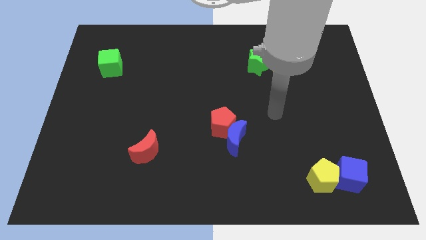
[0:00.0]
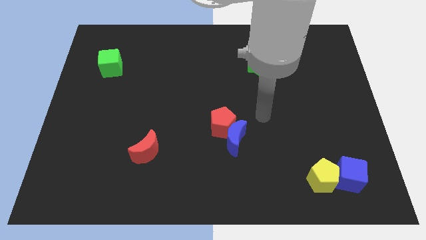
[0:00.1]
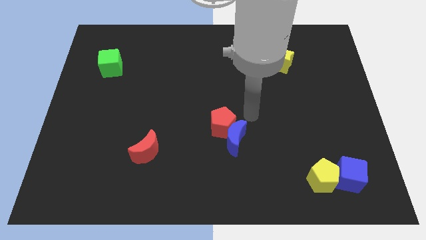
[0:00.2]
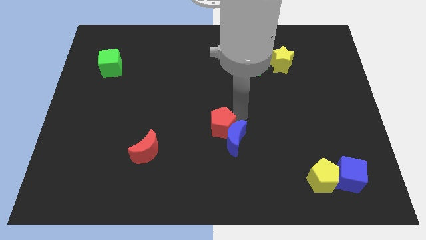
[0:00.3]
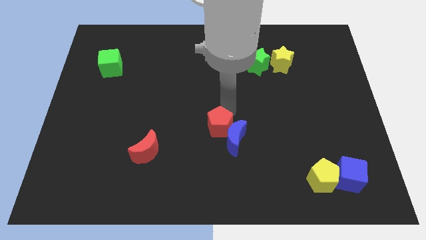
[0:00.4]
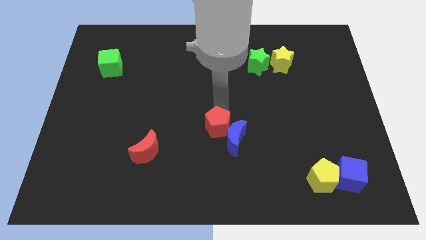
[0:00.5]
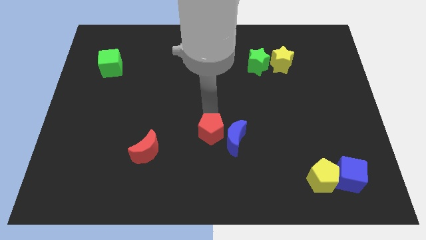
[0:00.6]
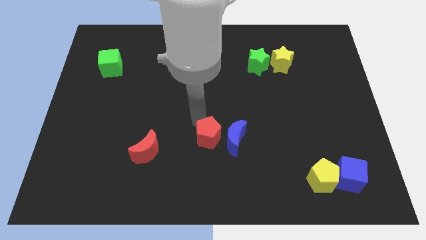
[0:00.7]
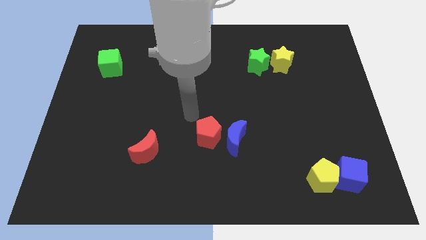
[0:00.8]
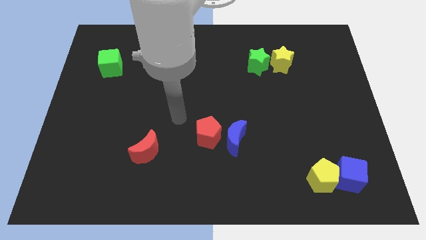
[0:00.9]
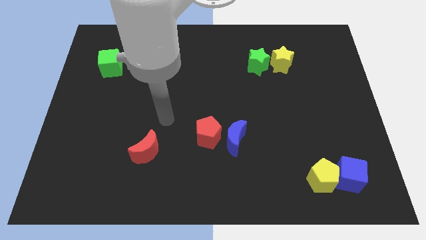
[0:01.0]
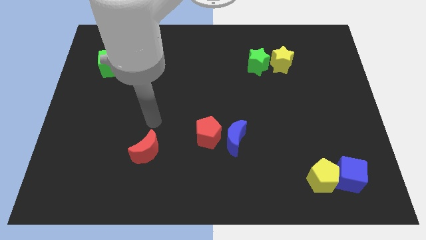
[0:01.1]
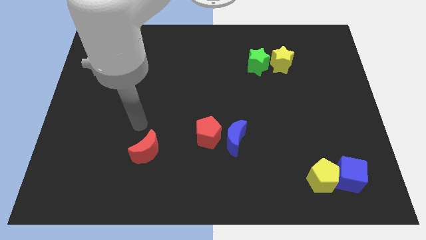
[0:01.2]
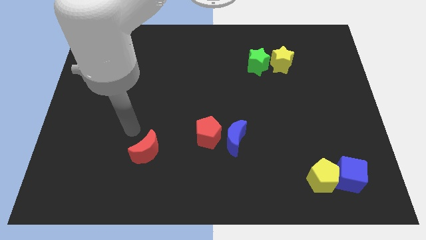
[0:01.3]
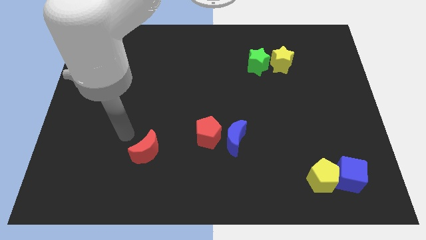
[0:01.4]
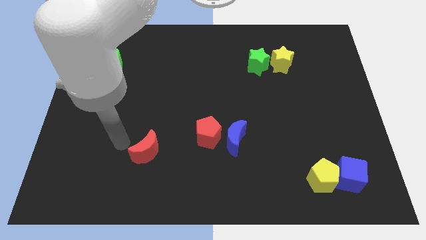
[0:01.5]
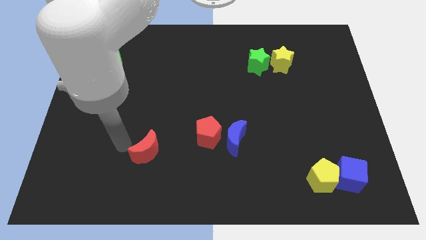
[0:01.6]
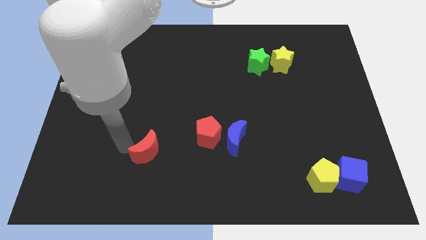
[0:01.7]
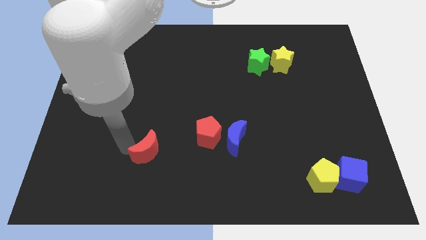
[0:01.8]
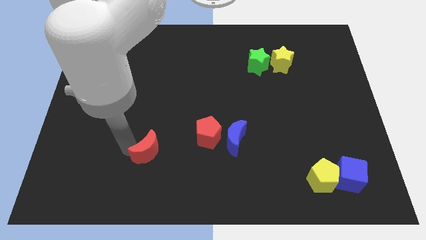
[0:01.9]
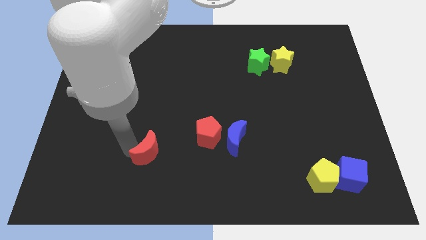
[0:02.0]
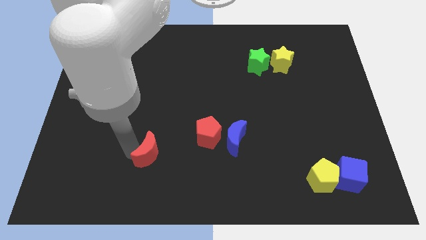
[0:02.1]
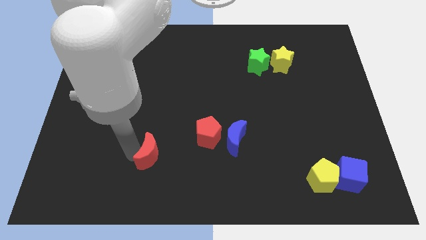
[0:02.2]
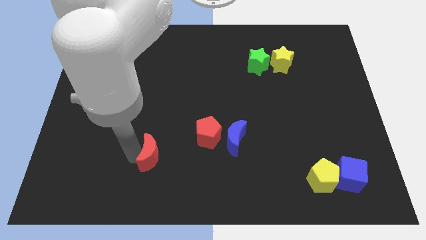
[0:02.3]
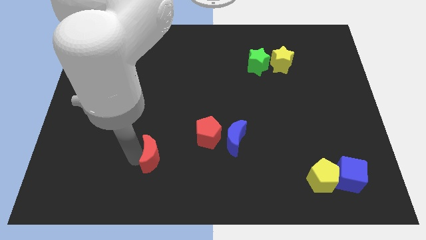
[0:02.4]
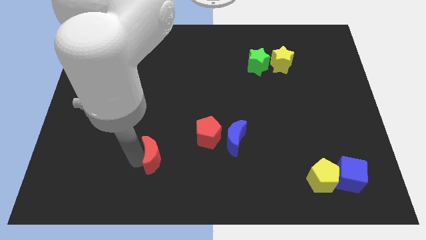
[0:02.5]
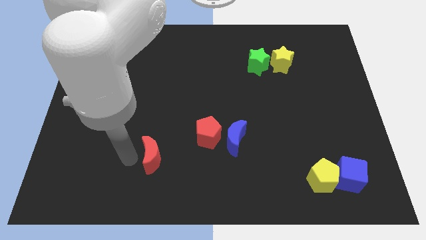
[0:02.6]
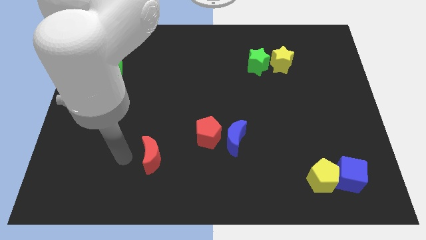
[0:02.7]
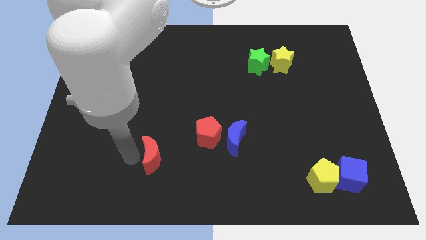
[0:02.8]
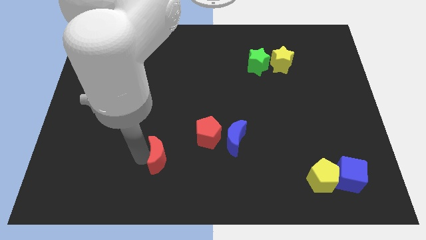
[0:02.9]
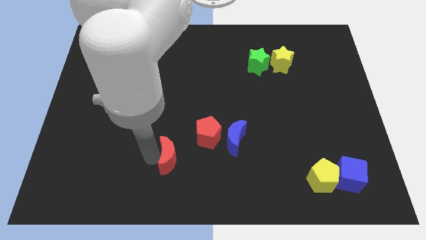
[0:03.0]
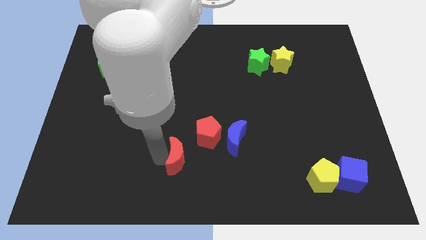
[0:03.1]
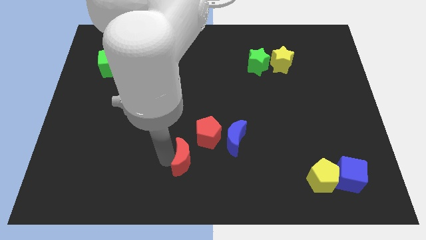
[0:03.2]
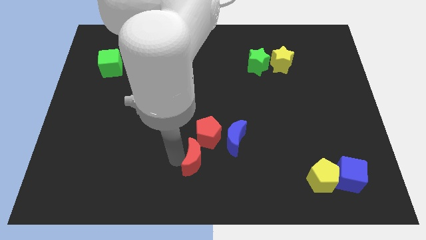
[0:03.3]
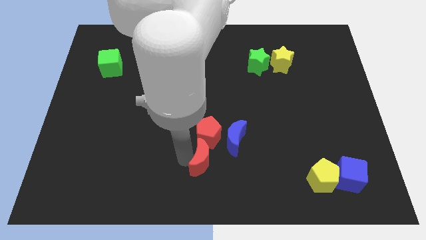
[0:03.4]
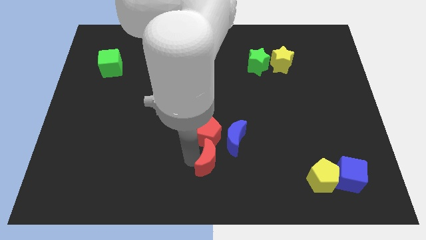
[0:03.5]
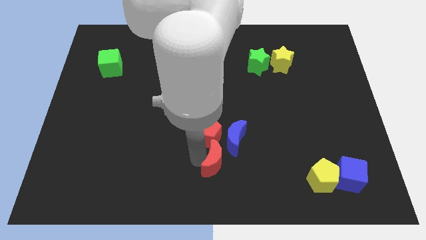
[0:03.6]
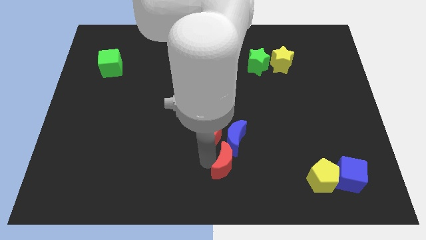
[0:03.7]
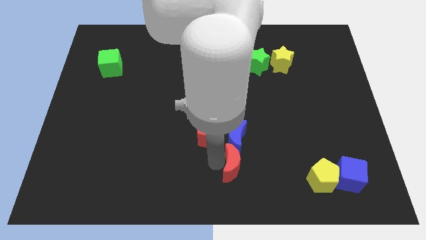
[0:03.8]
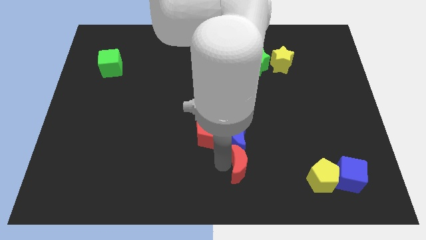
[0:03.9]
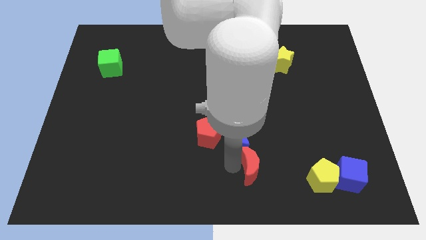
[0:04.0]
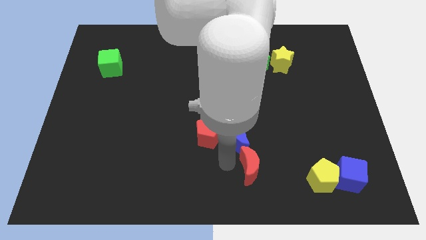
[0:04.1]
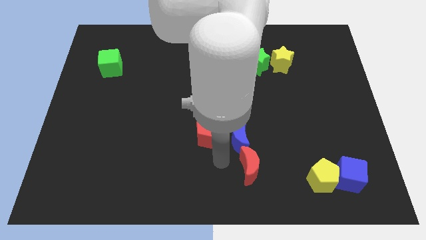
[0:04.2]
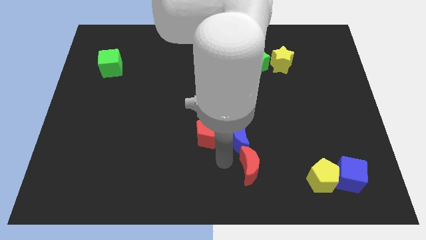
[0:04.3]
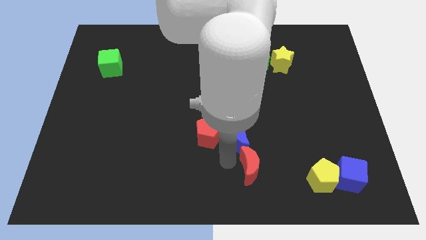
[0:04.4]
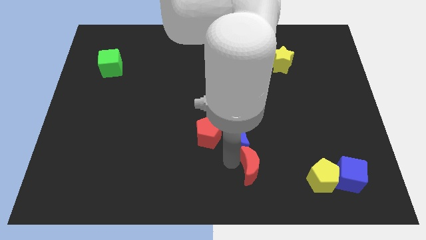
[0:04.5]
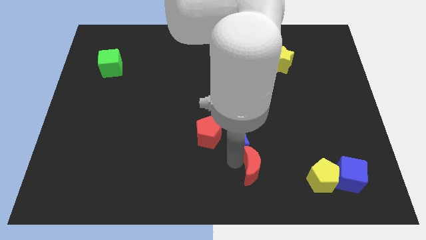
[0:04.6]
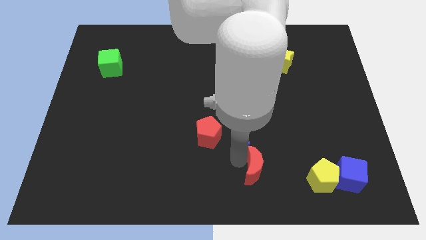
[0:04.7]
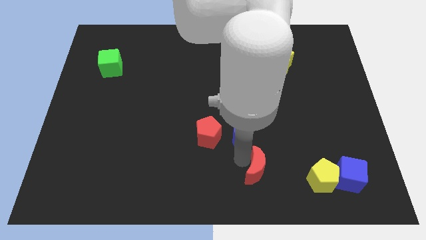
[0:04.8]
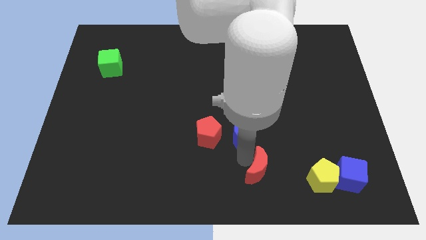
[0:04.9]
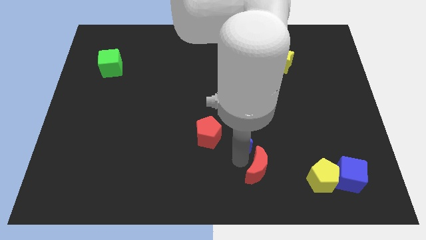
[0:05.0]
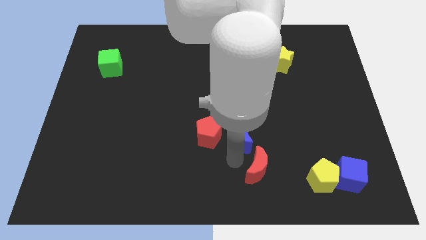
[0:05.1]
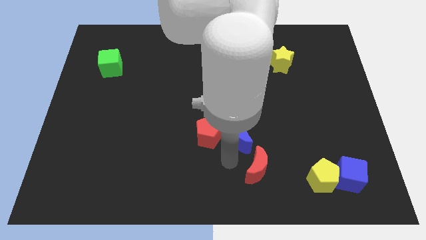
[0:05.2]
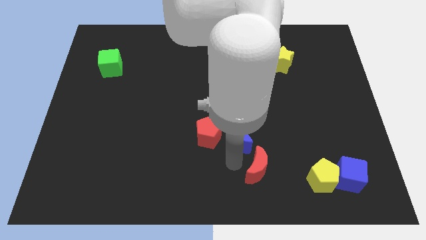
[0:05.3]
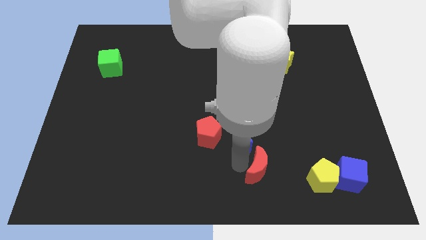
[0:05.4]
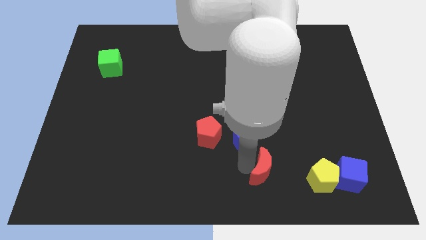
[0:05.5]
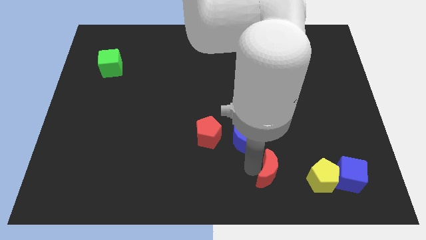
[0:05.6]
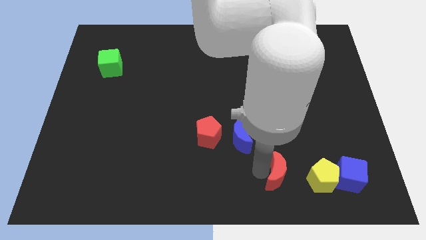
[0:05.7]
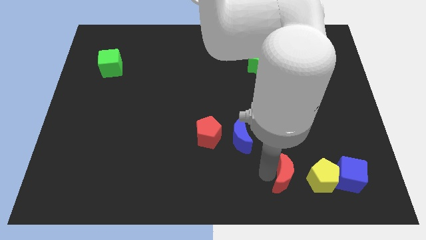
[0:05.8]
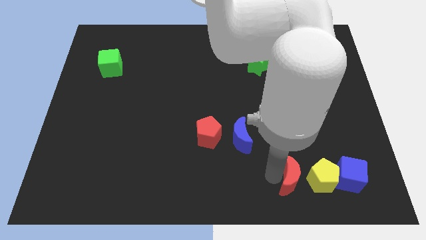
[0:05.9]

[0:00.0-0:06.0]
put the red moon close to the yellow pentagon

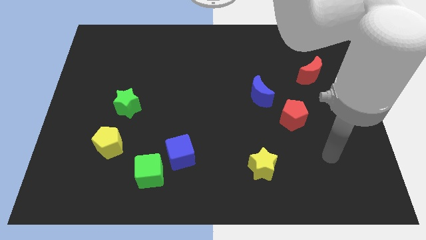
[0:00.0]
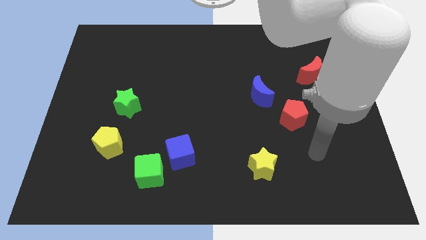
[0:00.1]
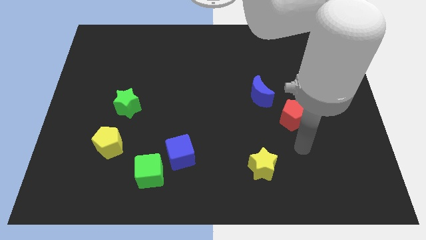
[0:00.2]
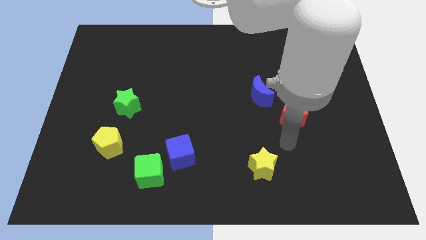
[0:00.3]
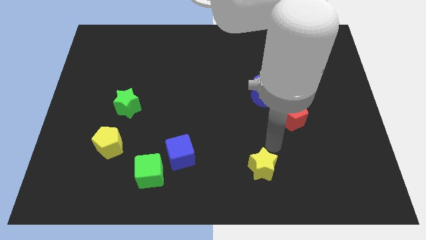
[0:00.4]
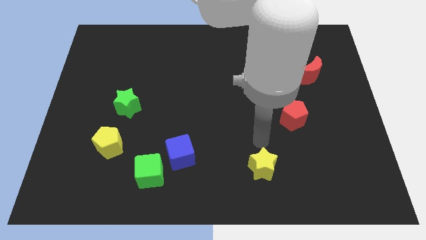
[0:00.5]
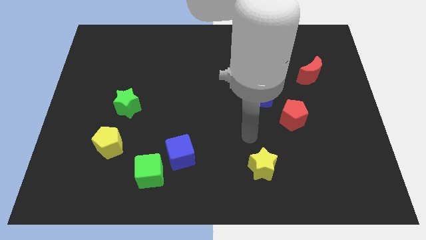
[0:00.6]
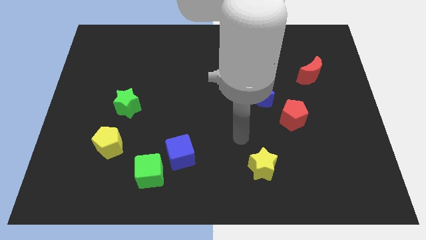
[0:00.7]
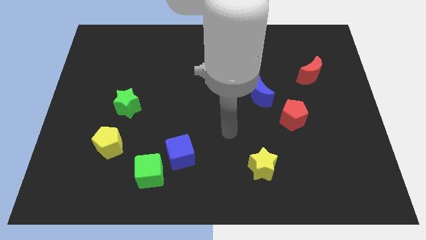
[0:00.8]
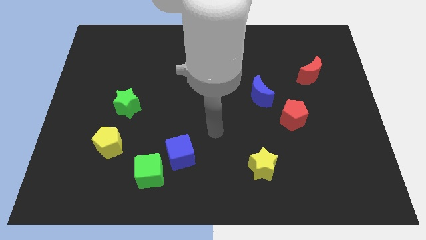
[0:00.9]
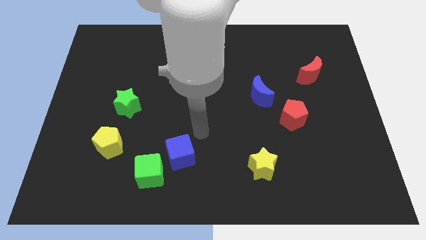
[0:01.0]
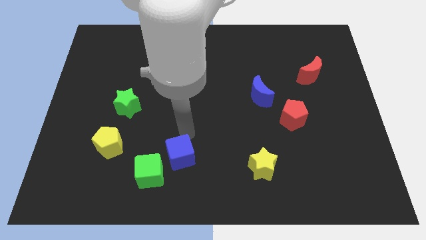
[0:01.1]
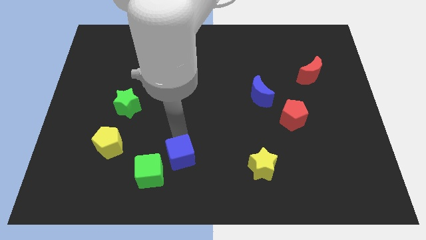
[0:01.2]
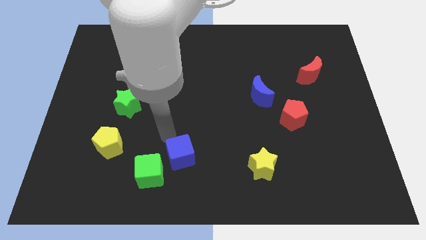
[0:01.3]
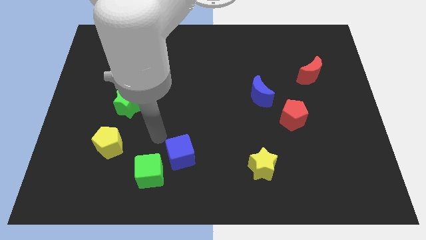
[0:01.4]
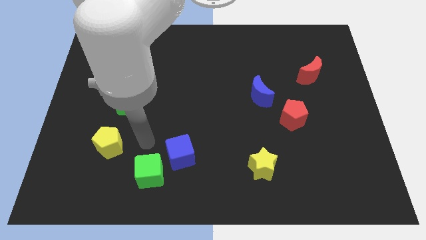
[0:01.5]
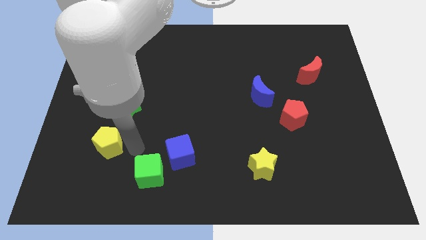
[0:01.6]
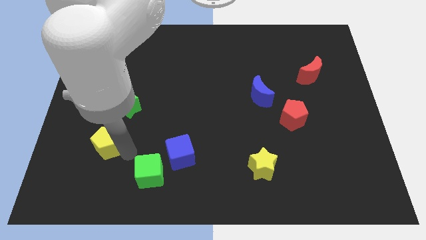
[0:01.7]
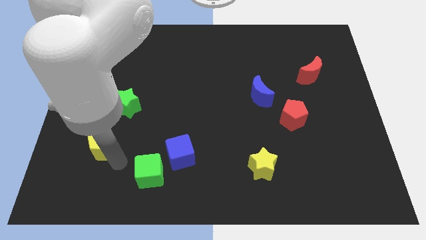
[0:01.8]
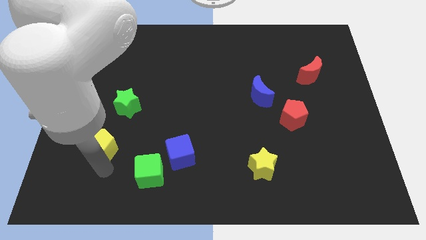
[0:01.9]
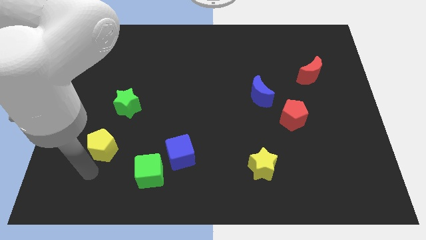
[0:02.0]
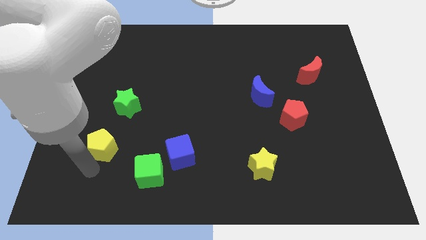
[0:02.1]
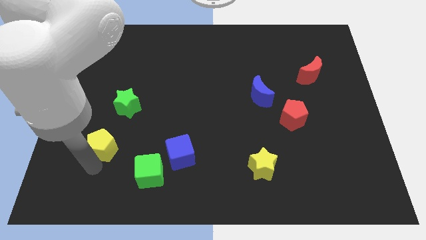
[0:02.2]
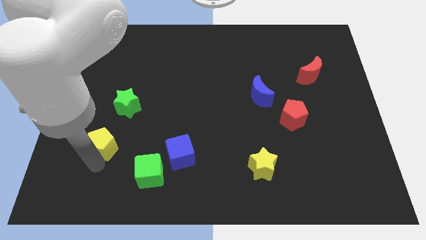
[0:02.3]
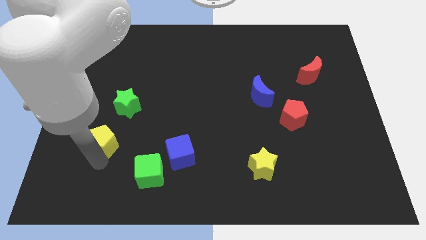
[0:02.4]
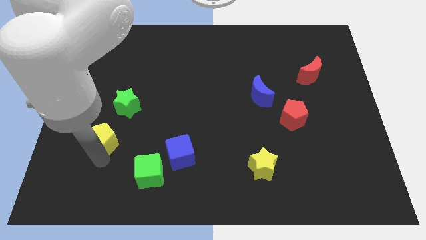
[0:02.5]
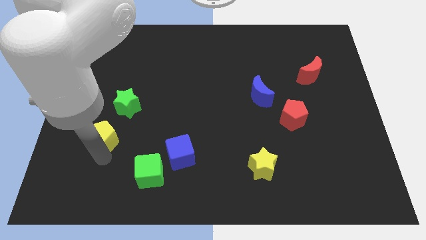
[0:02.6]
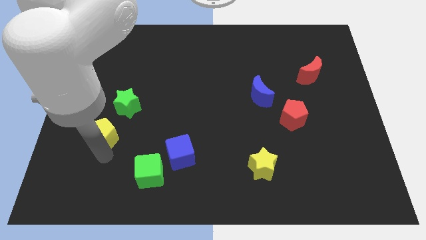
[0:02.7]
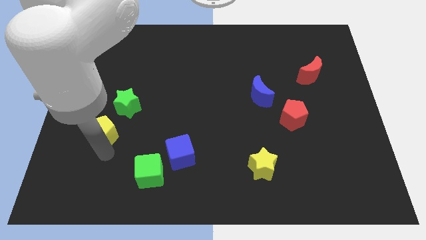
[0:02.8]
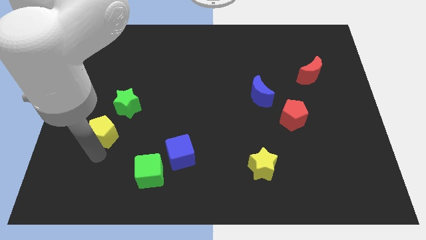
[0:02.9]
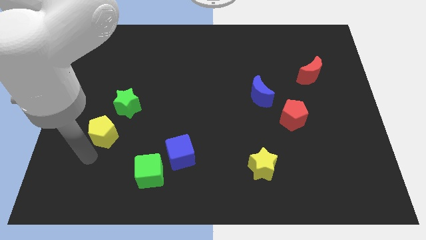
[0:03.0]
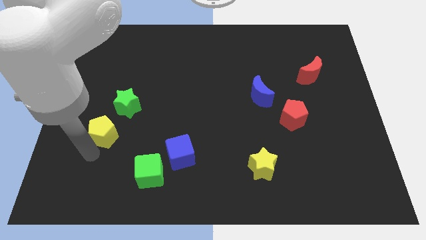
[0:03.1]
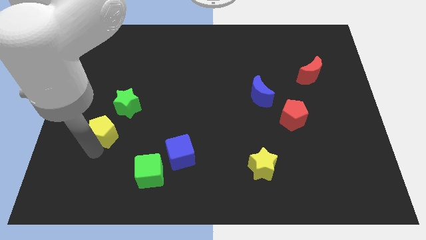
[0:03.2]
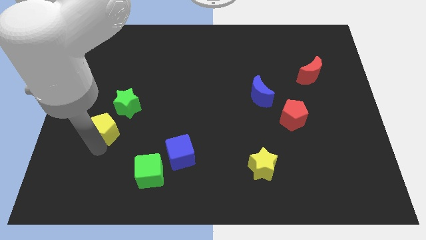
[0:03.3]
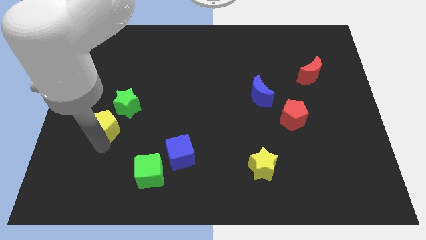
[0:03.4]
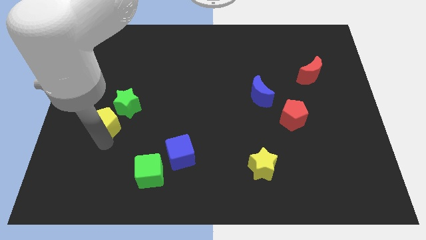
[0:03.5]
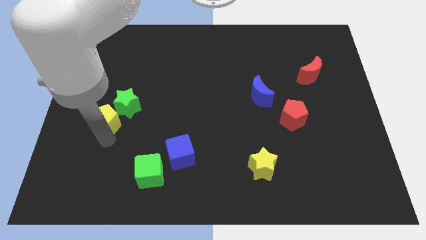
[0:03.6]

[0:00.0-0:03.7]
move the yellow pentagon towards the green star
